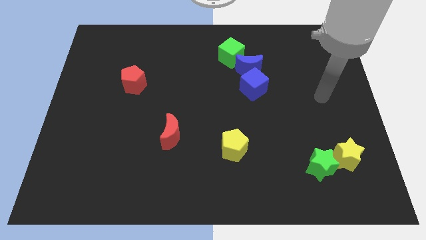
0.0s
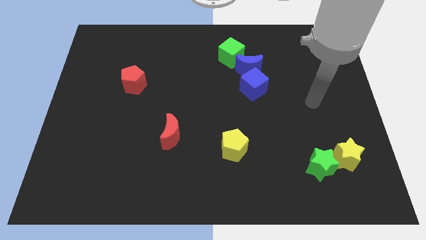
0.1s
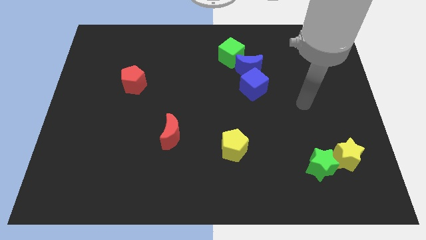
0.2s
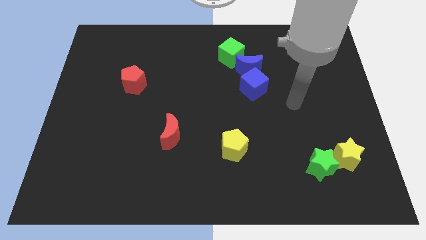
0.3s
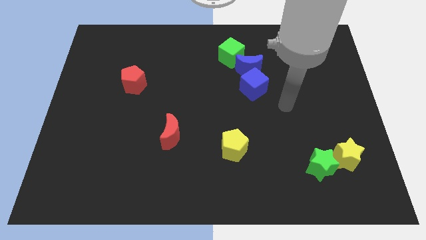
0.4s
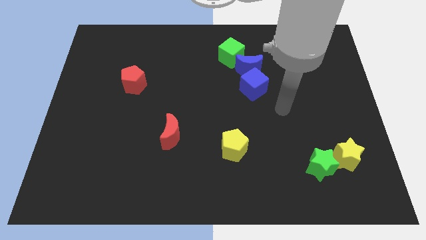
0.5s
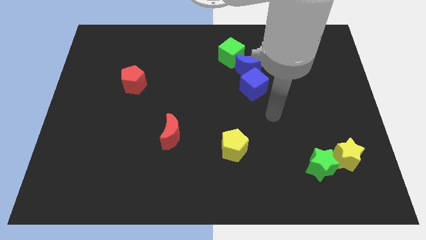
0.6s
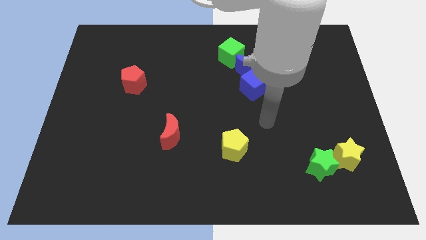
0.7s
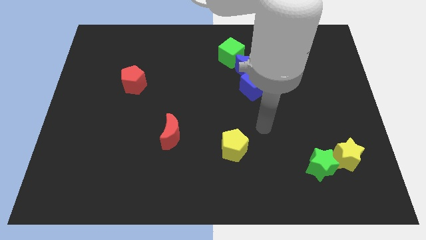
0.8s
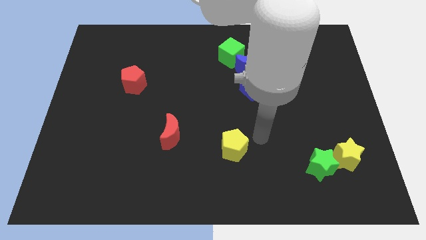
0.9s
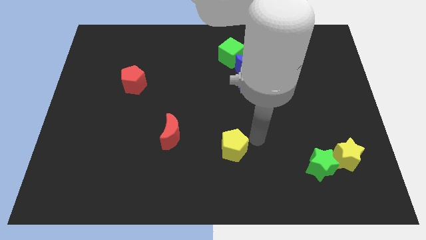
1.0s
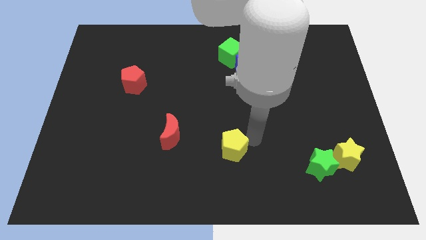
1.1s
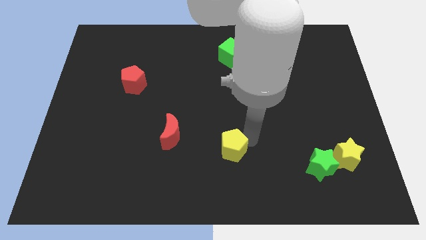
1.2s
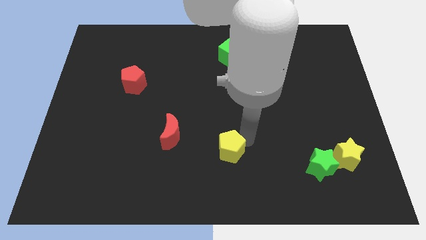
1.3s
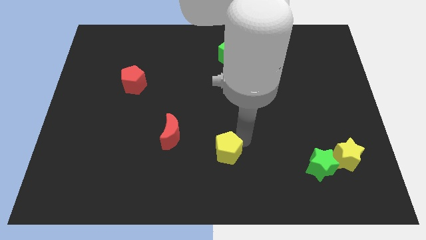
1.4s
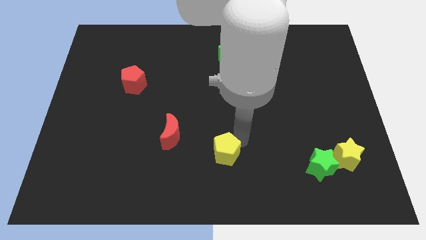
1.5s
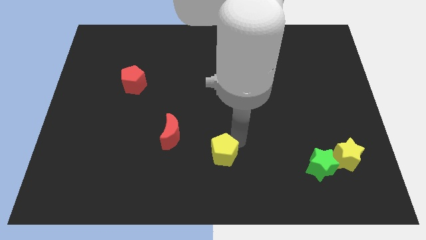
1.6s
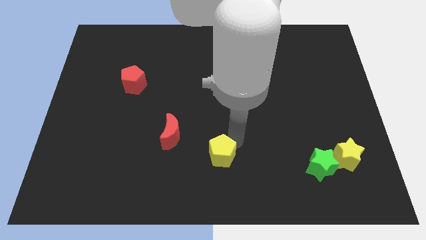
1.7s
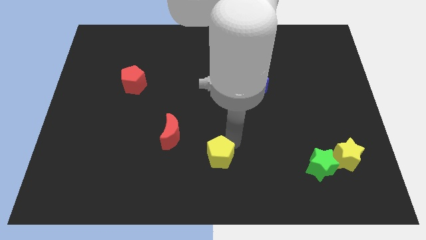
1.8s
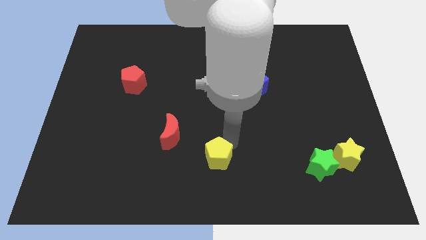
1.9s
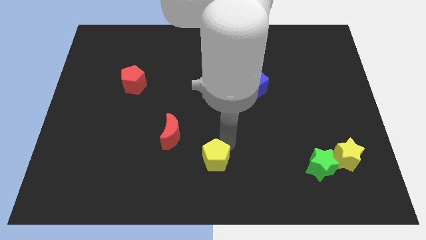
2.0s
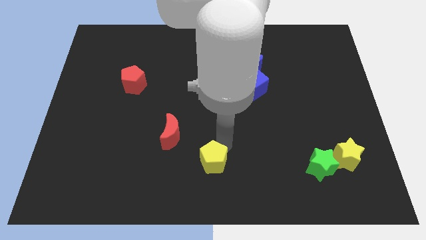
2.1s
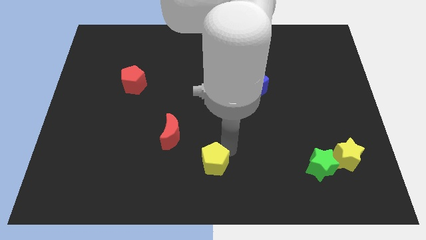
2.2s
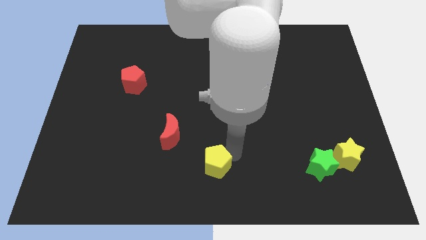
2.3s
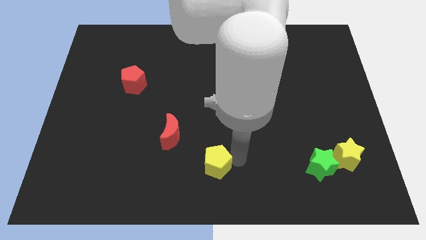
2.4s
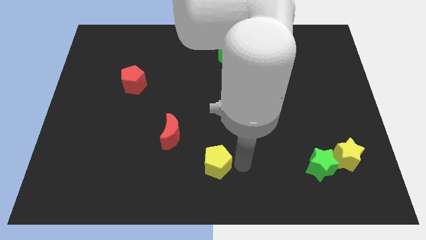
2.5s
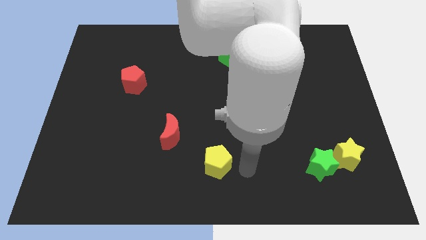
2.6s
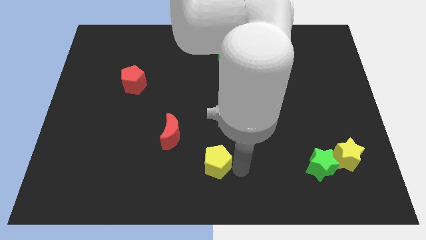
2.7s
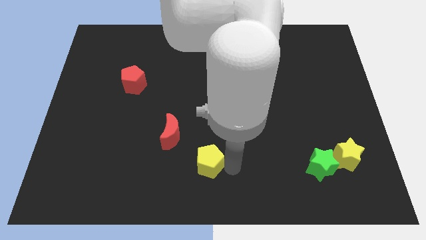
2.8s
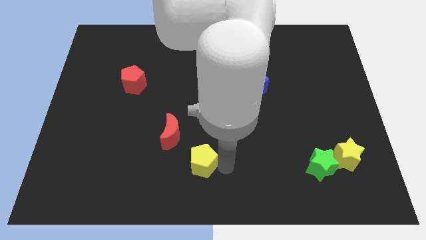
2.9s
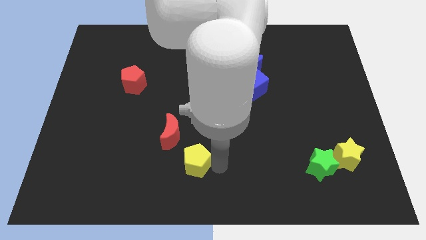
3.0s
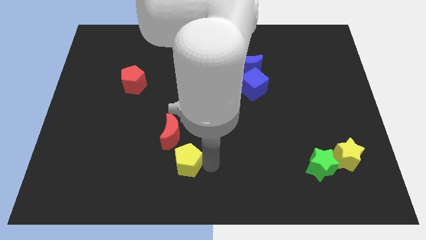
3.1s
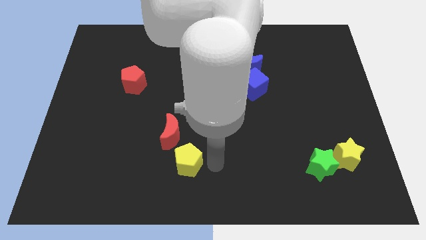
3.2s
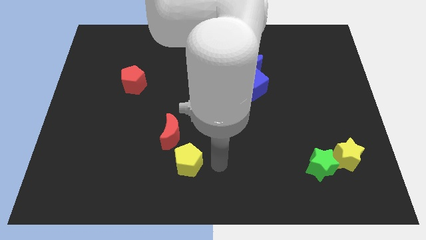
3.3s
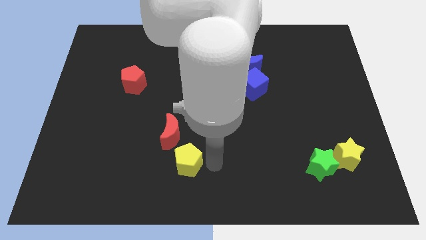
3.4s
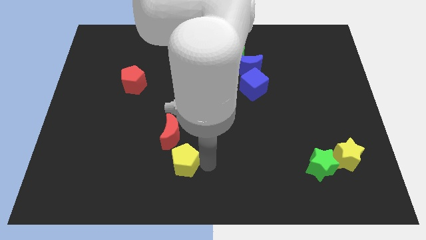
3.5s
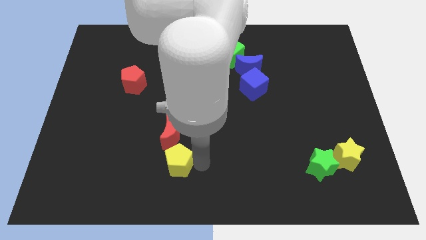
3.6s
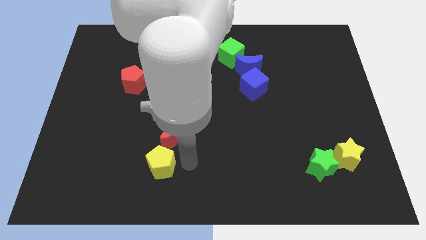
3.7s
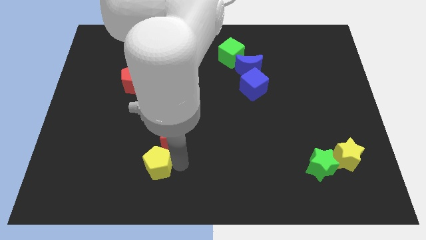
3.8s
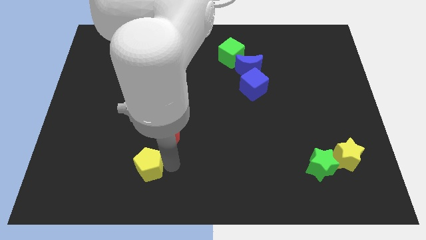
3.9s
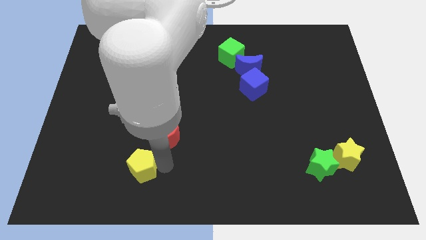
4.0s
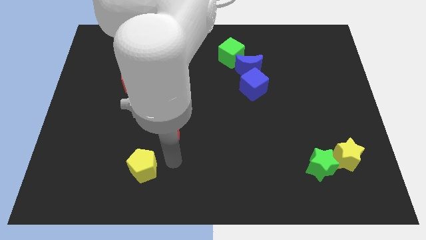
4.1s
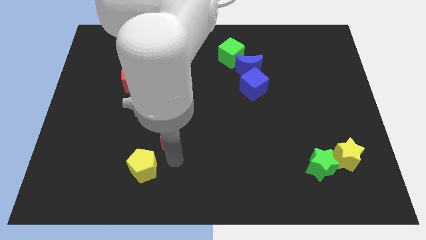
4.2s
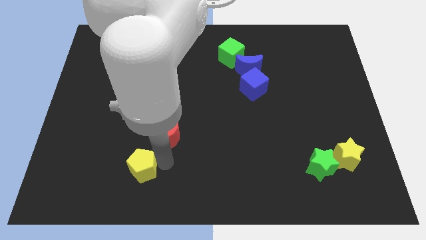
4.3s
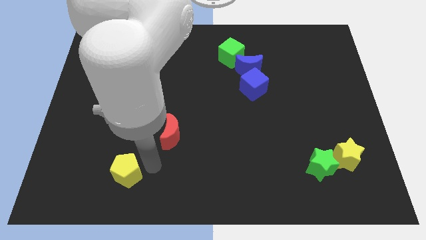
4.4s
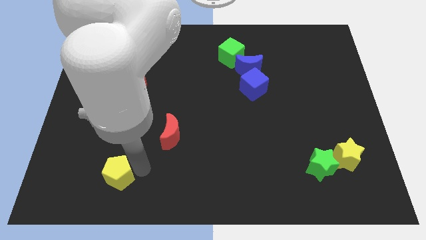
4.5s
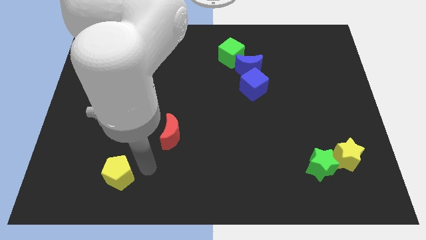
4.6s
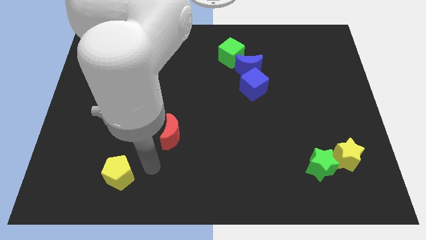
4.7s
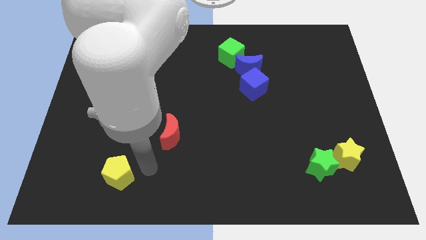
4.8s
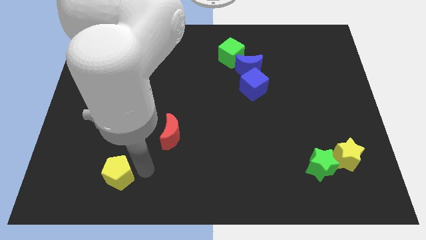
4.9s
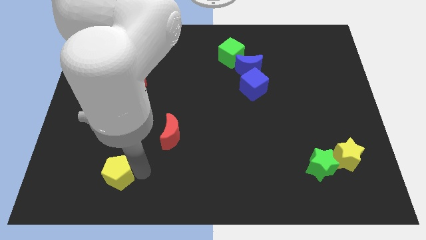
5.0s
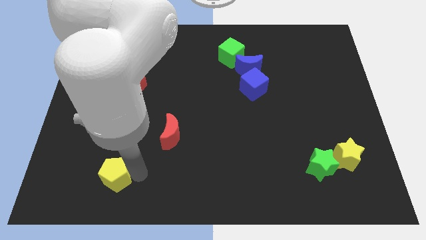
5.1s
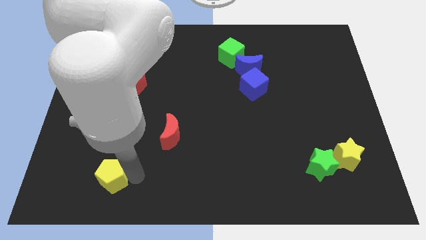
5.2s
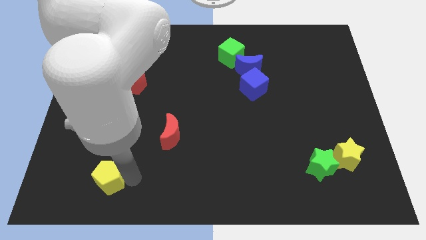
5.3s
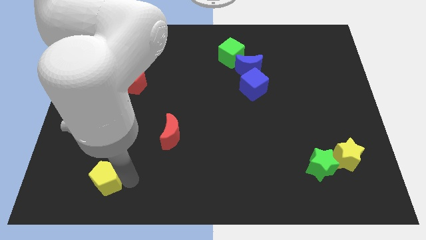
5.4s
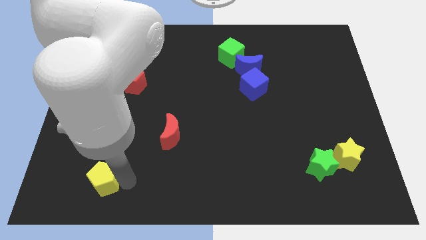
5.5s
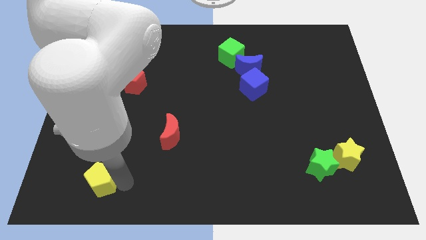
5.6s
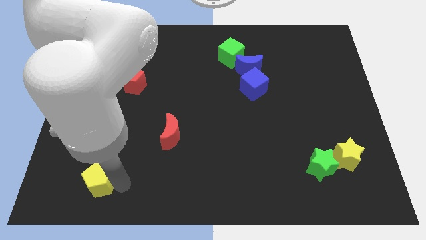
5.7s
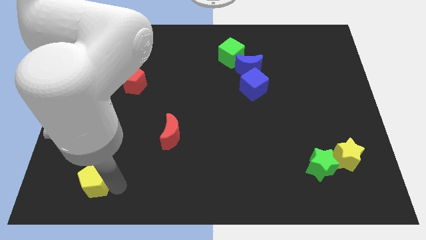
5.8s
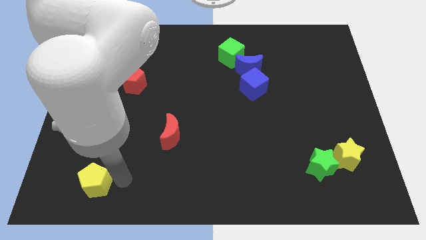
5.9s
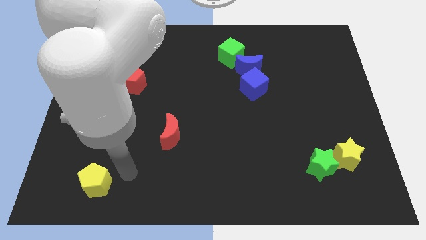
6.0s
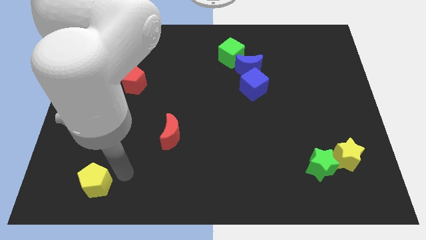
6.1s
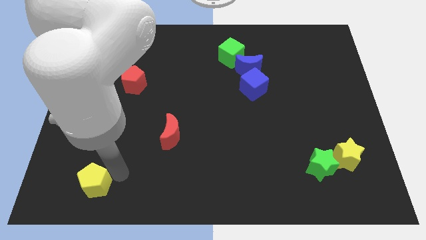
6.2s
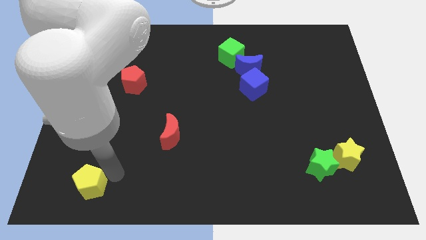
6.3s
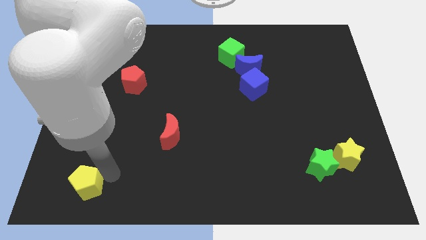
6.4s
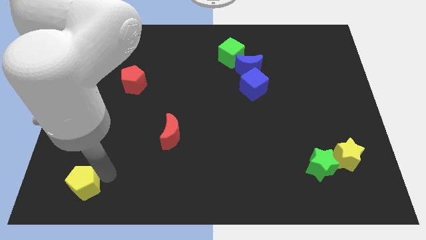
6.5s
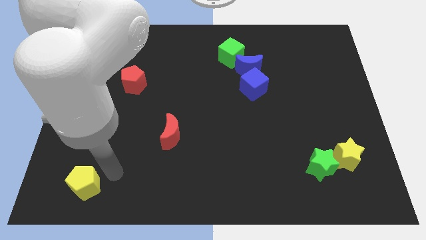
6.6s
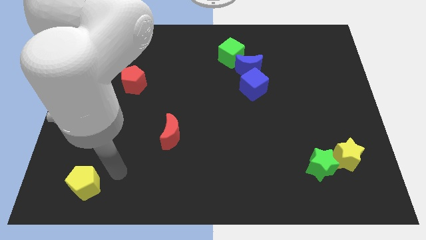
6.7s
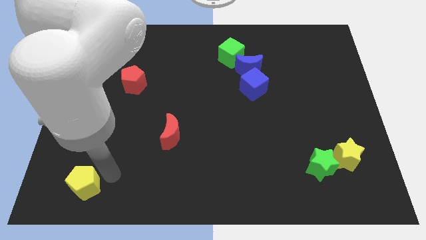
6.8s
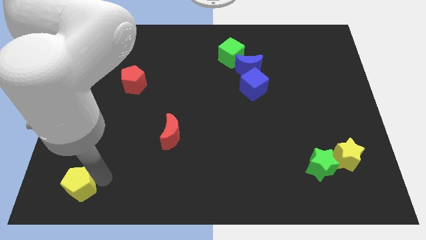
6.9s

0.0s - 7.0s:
move the yellow pentagon to the bottom left corner

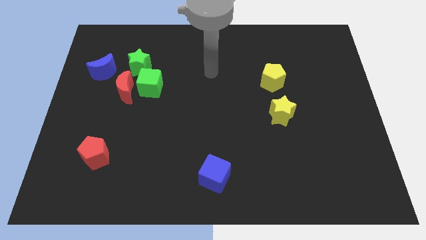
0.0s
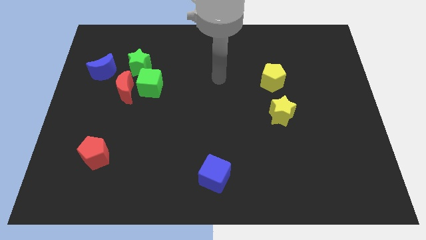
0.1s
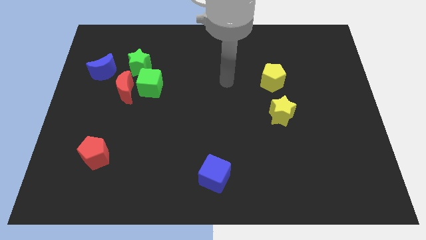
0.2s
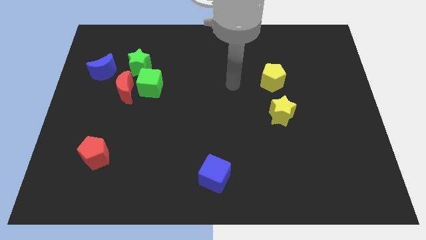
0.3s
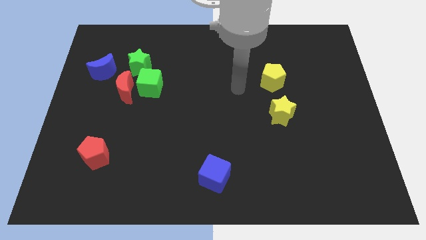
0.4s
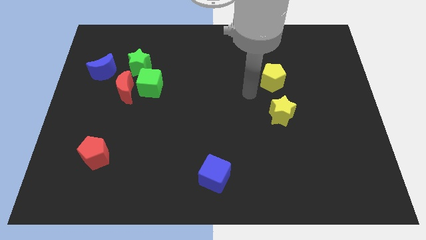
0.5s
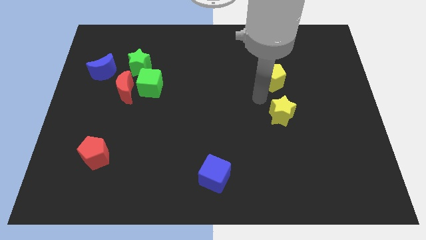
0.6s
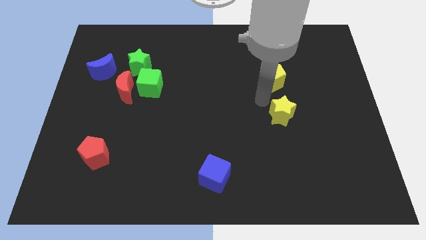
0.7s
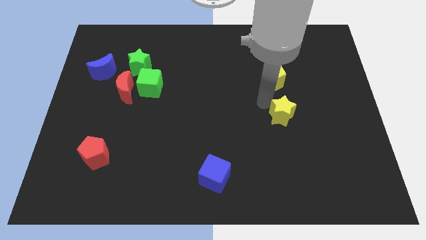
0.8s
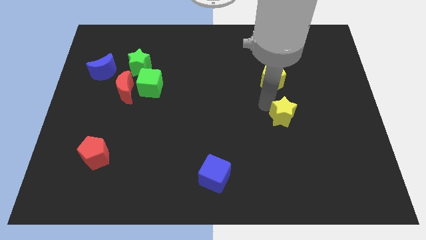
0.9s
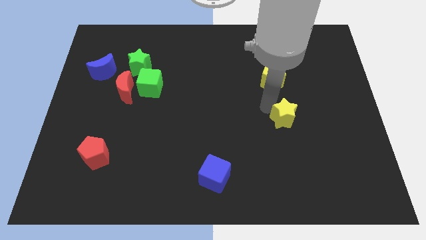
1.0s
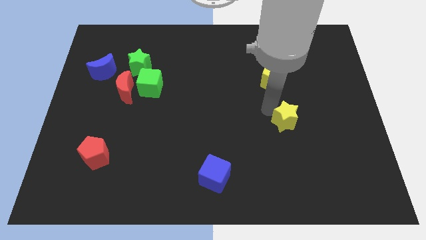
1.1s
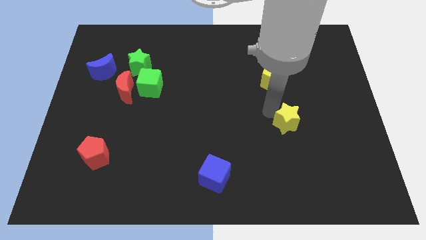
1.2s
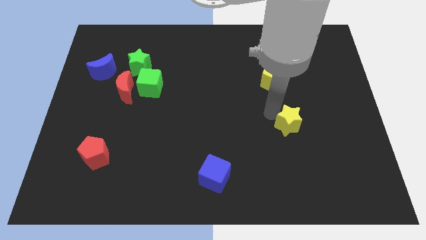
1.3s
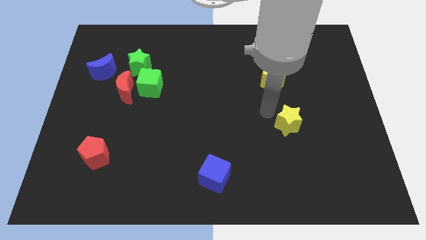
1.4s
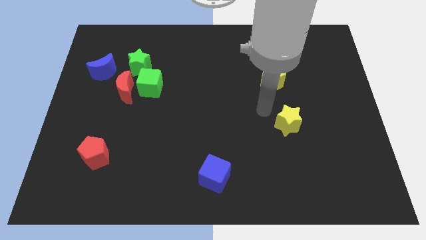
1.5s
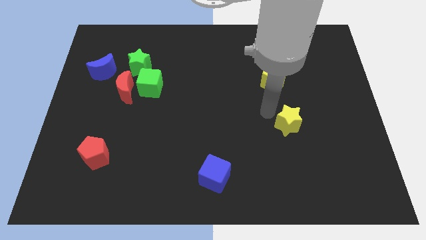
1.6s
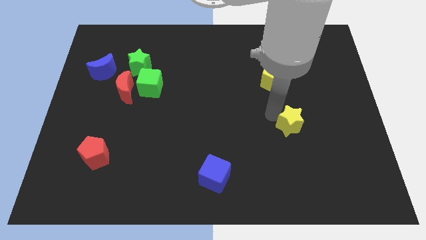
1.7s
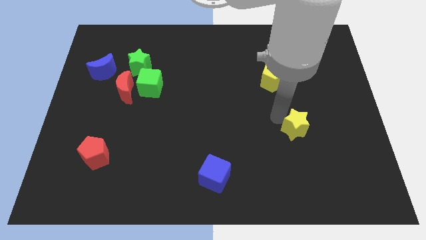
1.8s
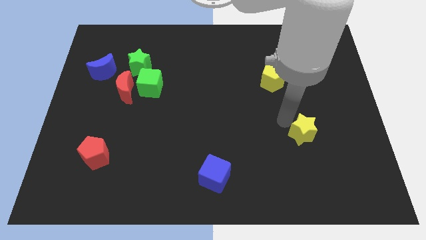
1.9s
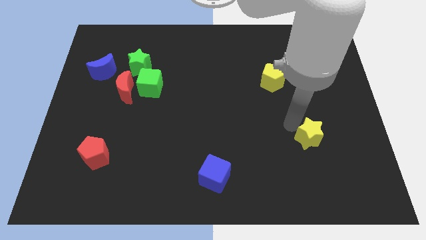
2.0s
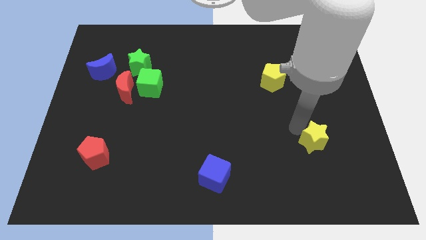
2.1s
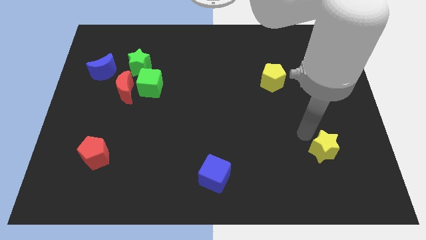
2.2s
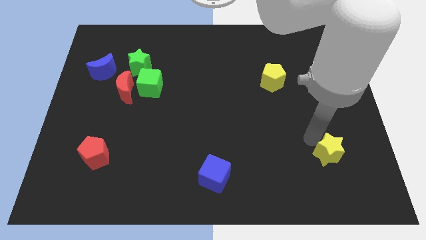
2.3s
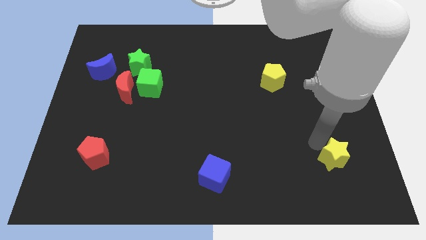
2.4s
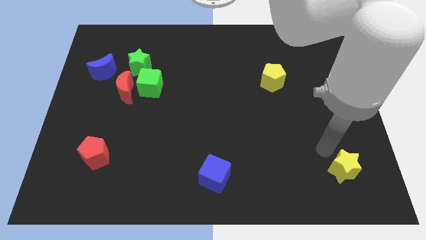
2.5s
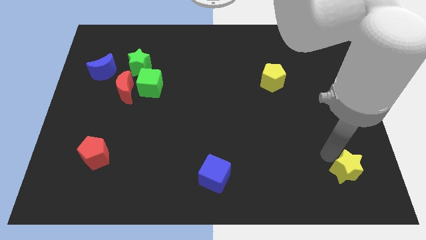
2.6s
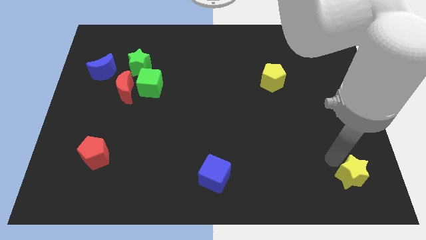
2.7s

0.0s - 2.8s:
put the yellow star to the bottom right of the board
